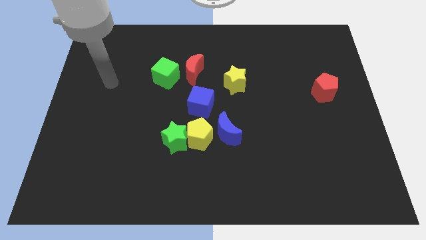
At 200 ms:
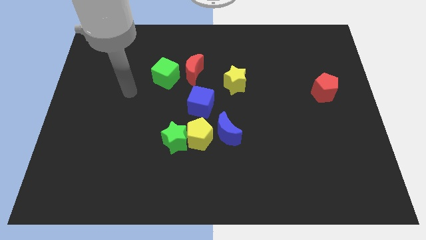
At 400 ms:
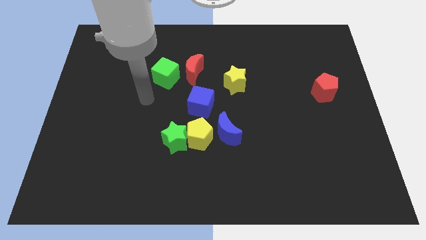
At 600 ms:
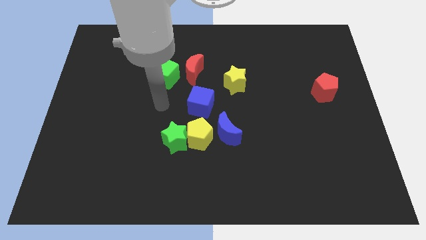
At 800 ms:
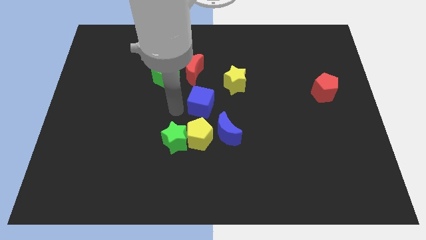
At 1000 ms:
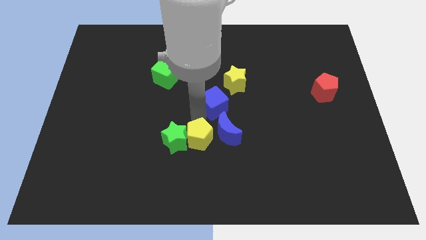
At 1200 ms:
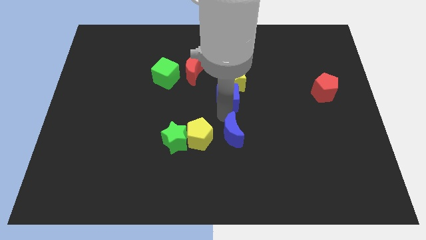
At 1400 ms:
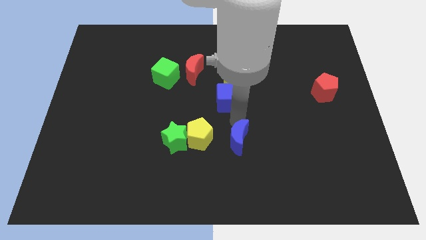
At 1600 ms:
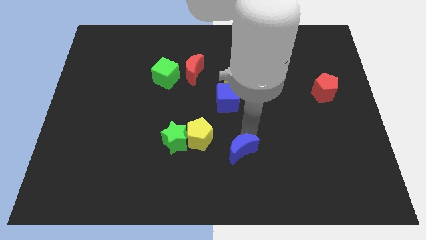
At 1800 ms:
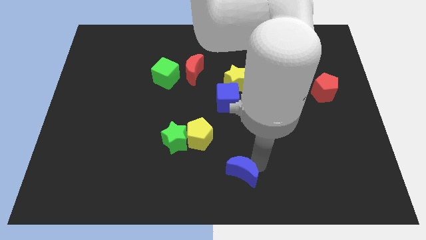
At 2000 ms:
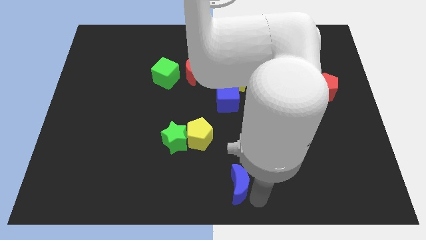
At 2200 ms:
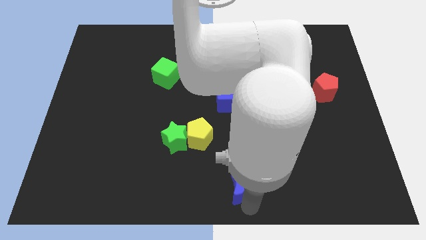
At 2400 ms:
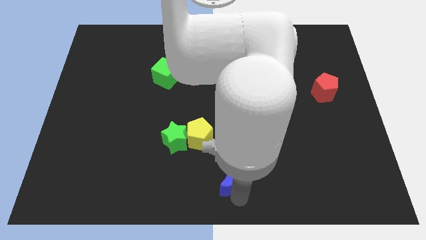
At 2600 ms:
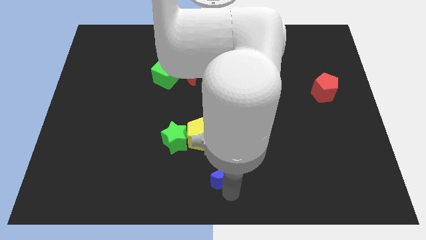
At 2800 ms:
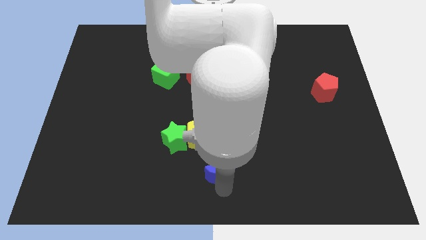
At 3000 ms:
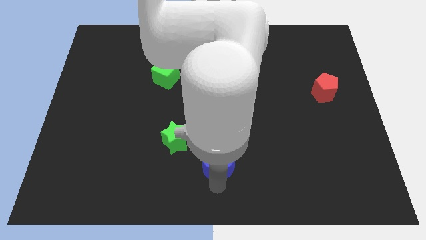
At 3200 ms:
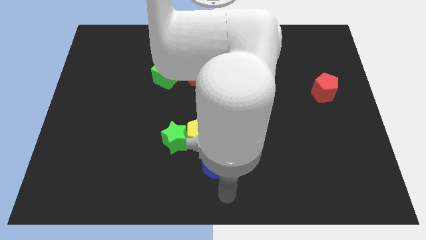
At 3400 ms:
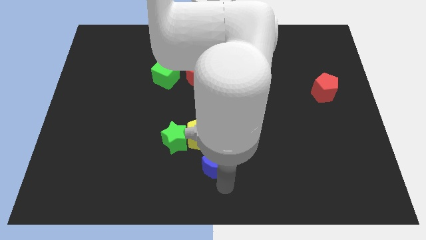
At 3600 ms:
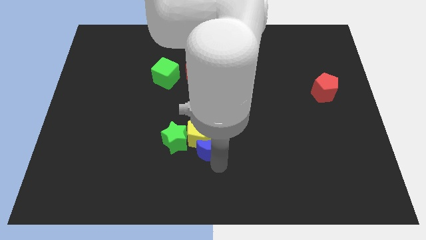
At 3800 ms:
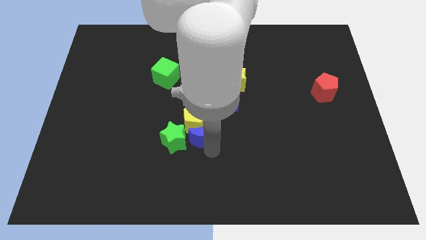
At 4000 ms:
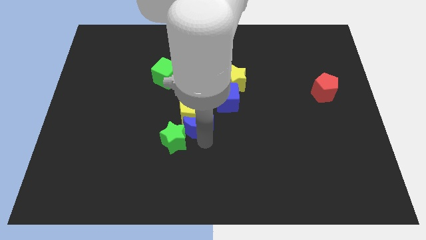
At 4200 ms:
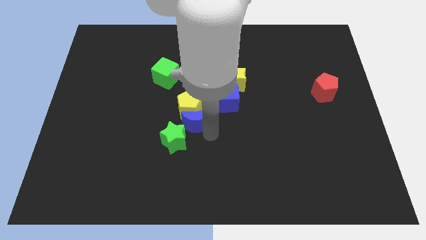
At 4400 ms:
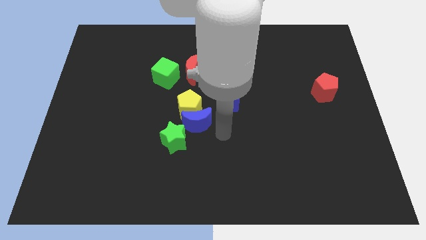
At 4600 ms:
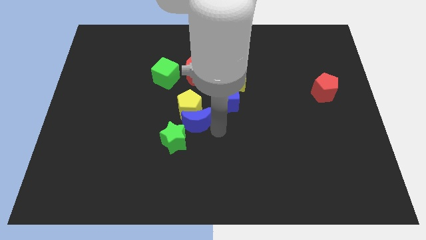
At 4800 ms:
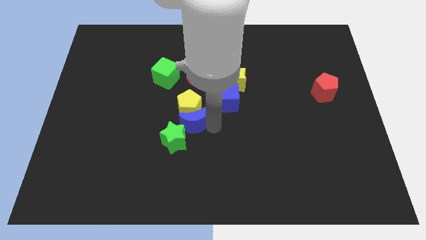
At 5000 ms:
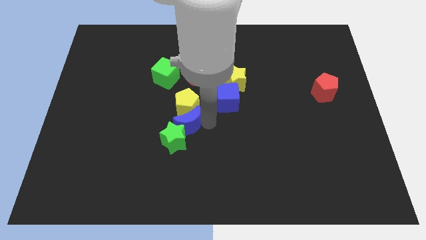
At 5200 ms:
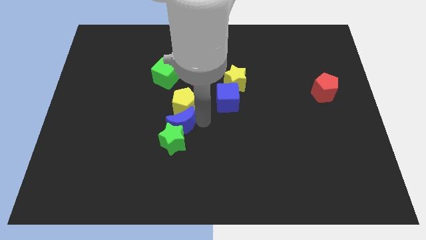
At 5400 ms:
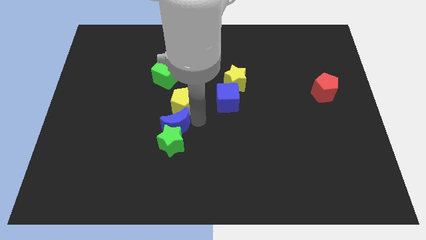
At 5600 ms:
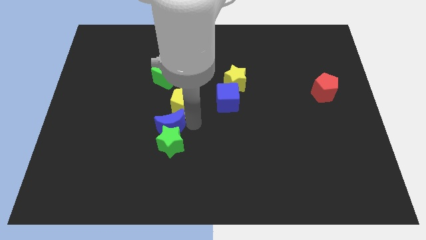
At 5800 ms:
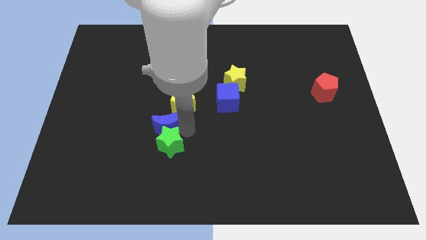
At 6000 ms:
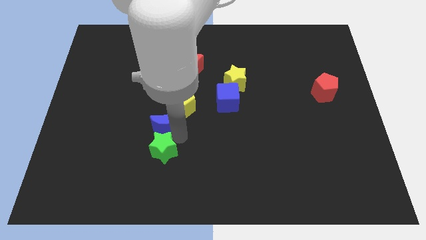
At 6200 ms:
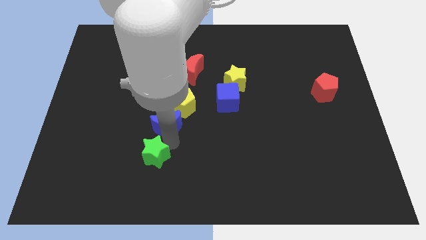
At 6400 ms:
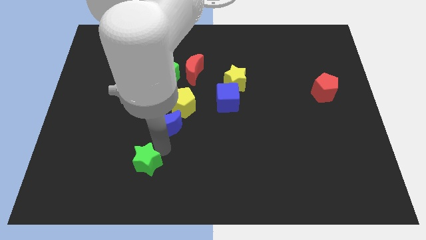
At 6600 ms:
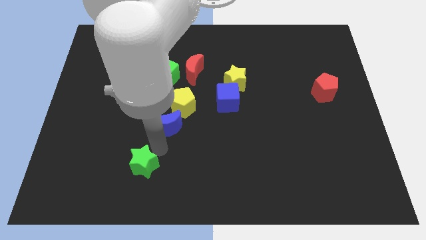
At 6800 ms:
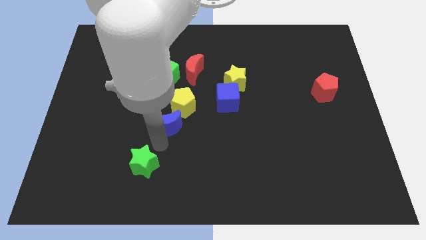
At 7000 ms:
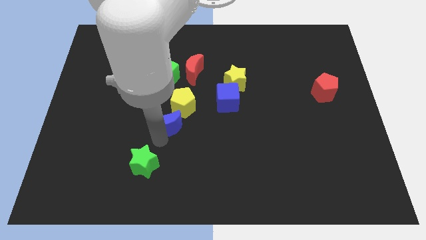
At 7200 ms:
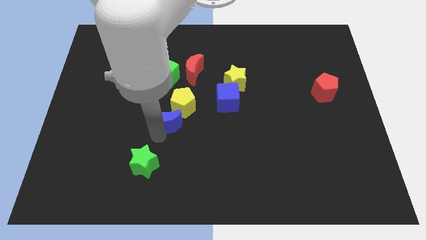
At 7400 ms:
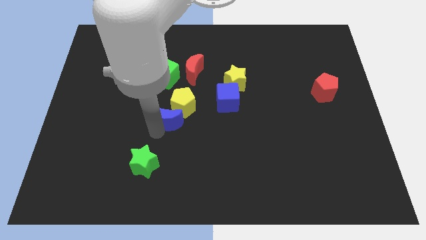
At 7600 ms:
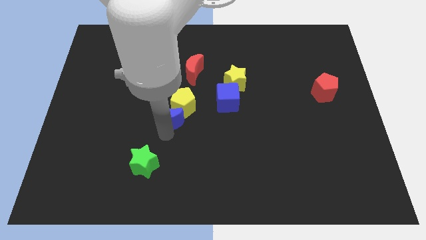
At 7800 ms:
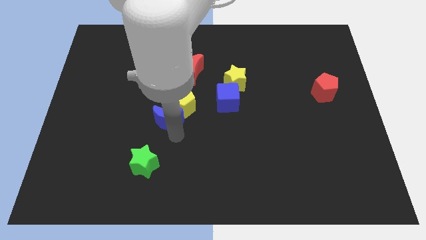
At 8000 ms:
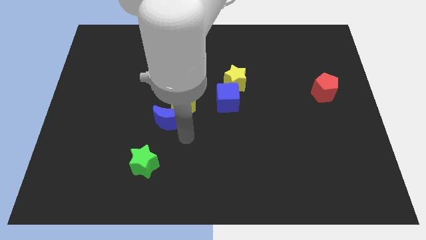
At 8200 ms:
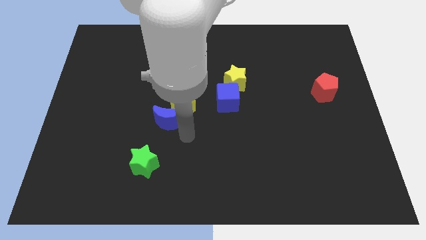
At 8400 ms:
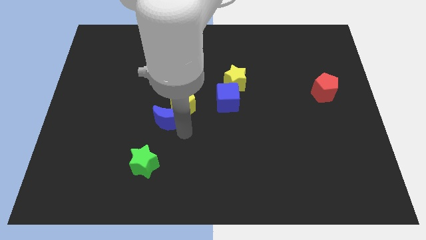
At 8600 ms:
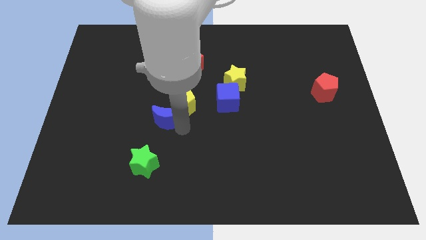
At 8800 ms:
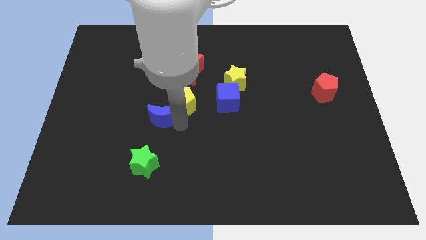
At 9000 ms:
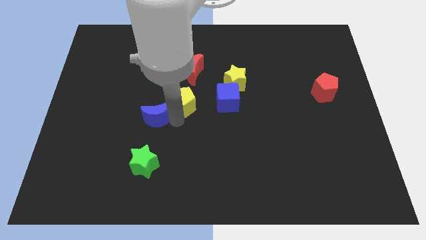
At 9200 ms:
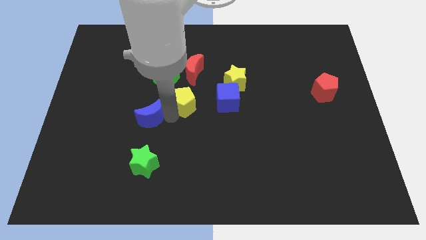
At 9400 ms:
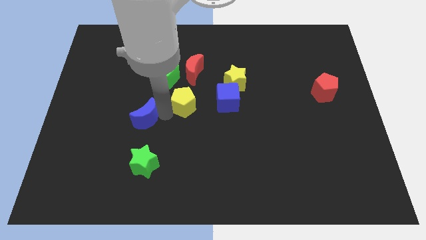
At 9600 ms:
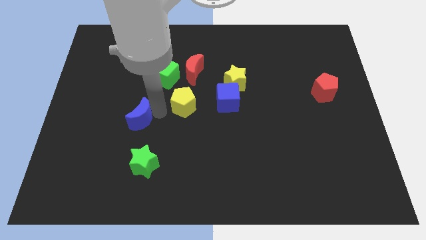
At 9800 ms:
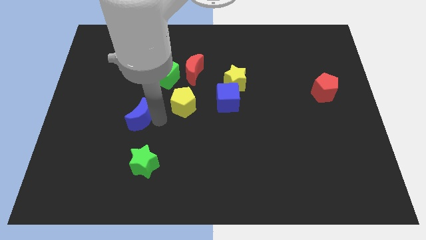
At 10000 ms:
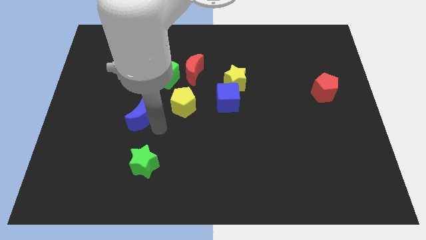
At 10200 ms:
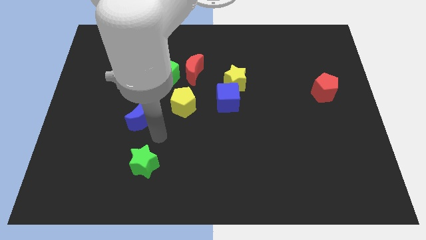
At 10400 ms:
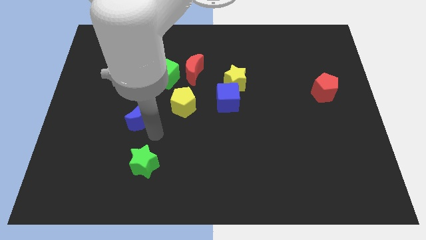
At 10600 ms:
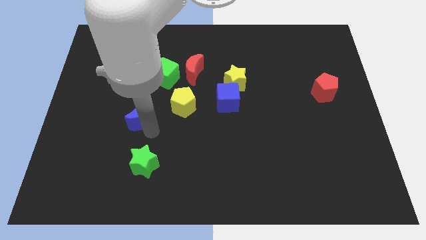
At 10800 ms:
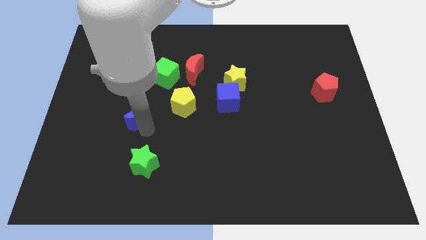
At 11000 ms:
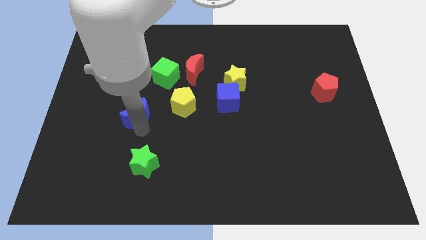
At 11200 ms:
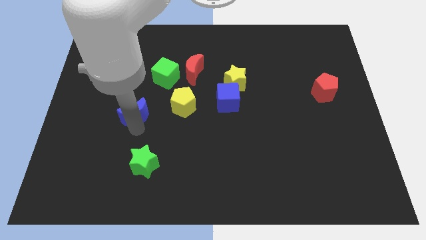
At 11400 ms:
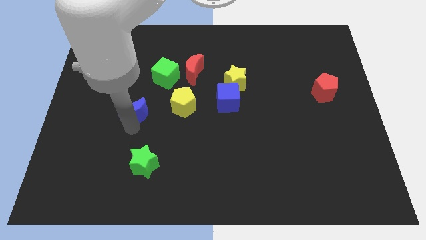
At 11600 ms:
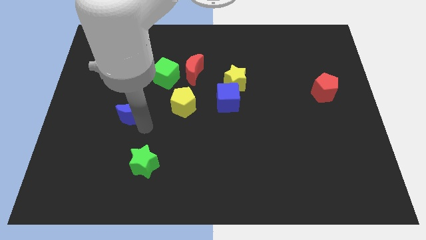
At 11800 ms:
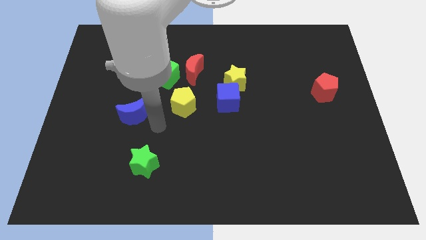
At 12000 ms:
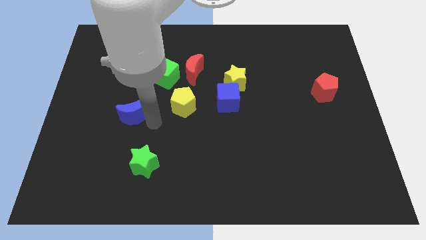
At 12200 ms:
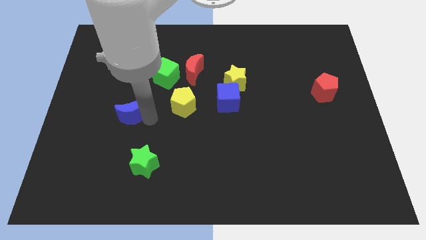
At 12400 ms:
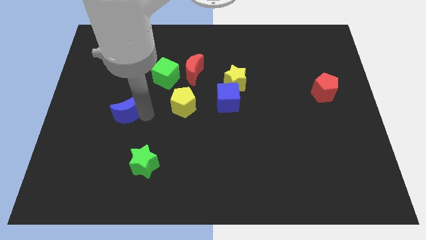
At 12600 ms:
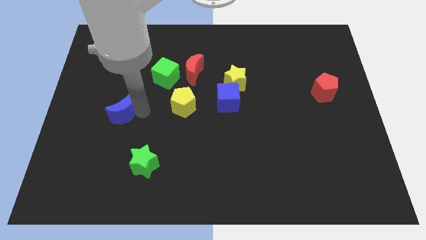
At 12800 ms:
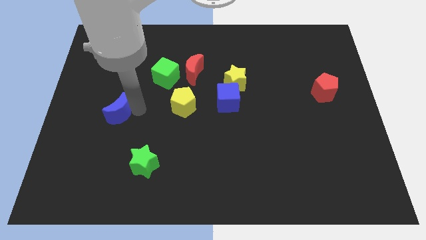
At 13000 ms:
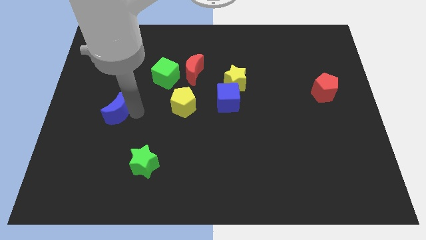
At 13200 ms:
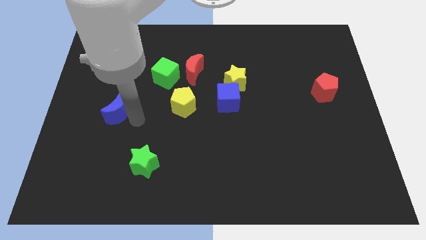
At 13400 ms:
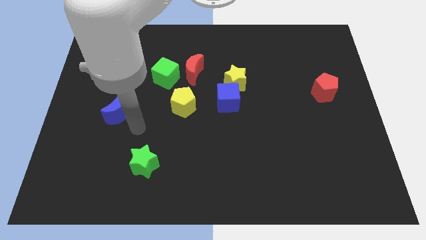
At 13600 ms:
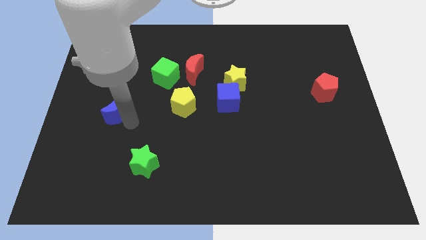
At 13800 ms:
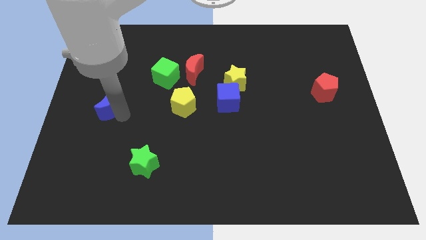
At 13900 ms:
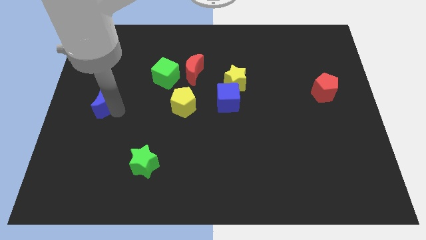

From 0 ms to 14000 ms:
put the blue moon to the center left
